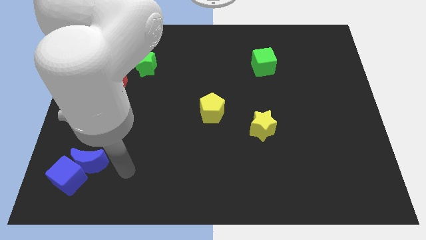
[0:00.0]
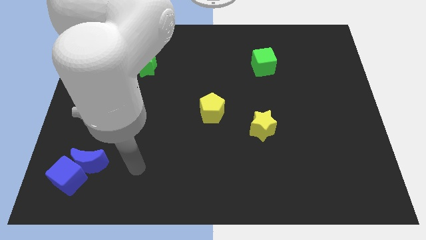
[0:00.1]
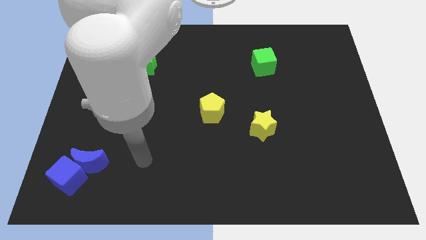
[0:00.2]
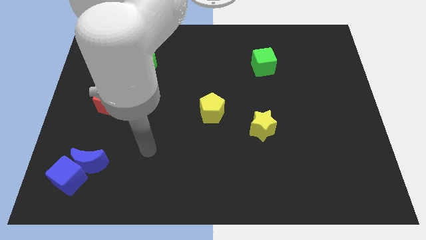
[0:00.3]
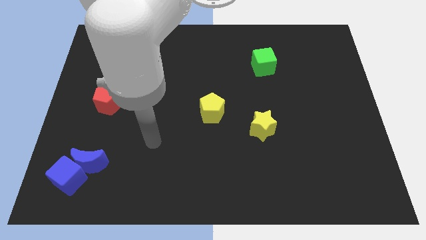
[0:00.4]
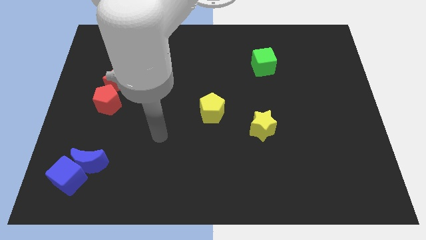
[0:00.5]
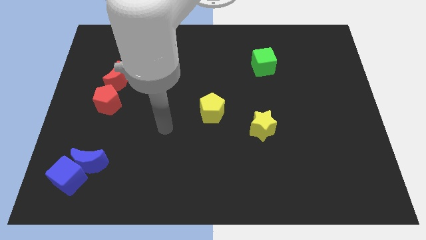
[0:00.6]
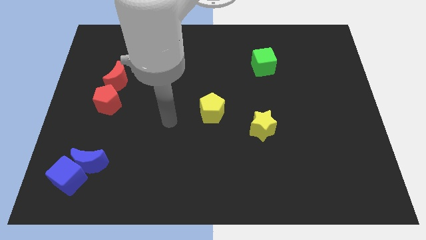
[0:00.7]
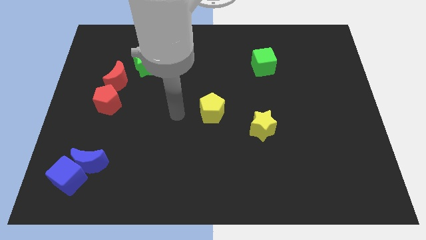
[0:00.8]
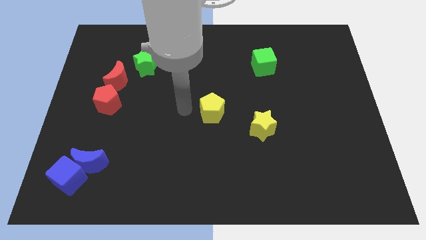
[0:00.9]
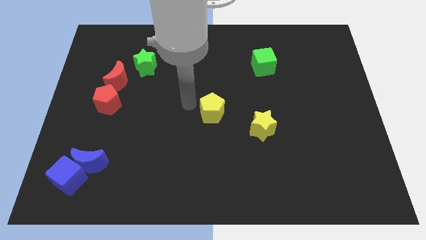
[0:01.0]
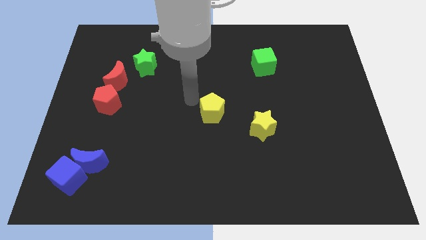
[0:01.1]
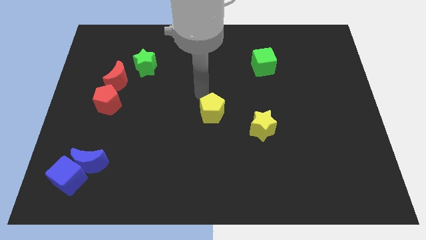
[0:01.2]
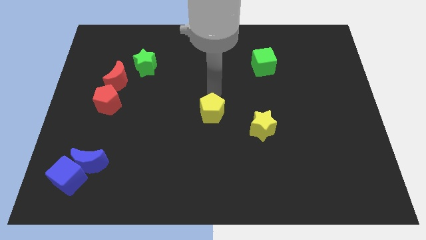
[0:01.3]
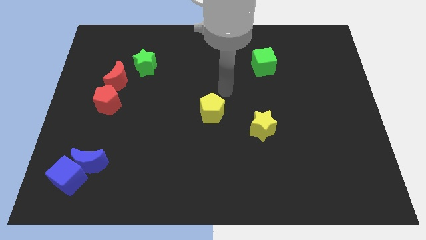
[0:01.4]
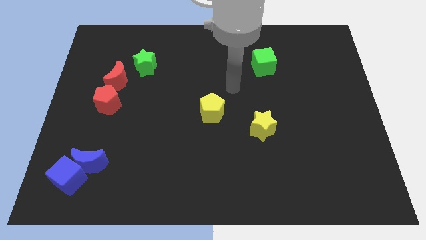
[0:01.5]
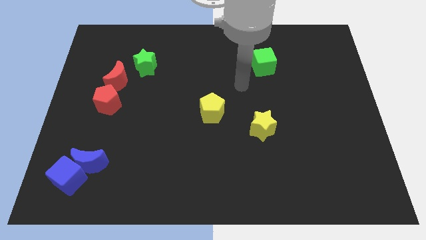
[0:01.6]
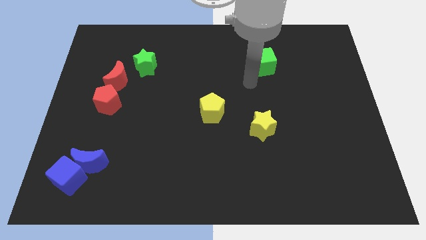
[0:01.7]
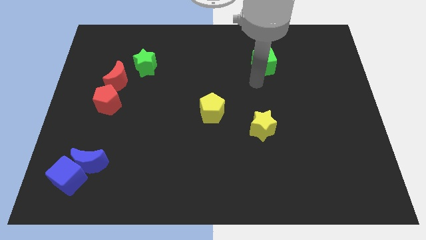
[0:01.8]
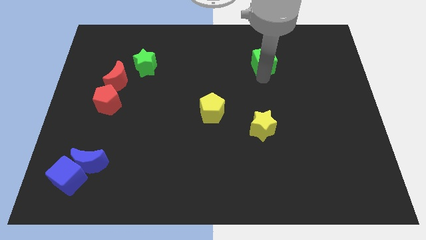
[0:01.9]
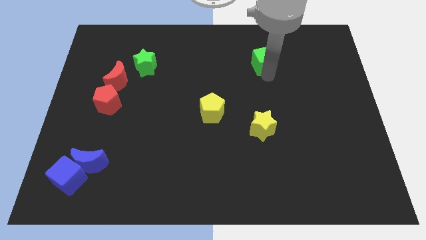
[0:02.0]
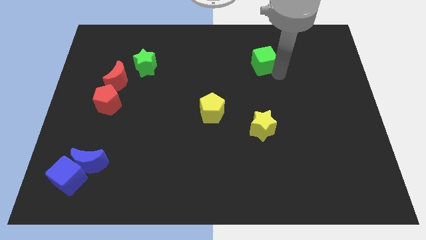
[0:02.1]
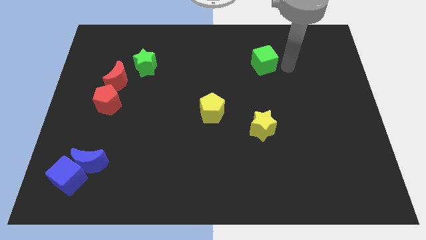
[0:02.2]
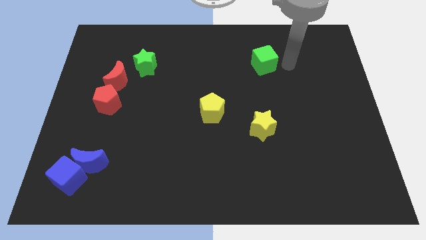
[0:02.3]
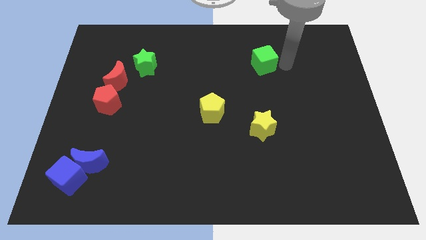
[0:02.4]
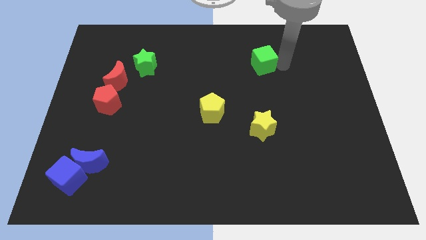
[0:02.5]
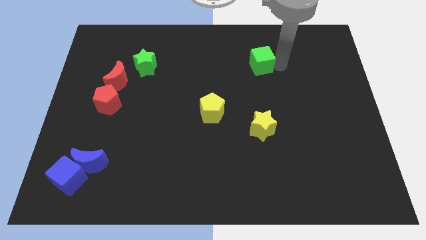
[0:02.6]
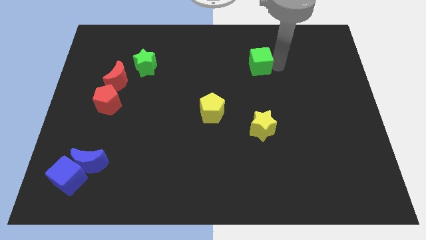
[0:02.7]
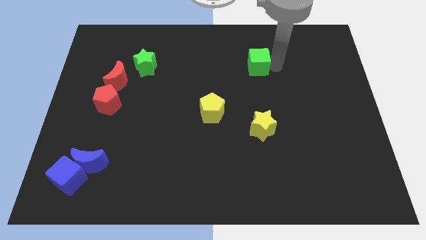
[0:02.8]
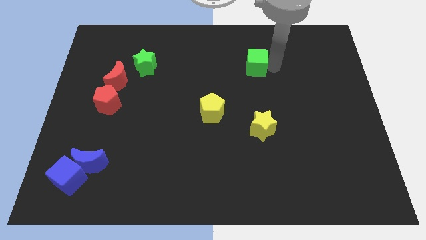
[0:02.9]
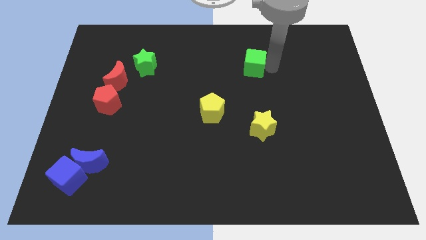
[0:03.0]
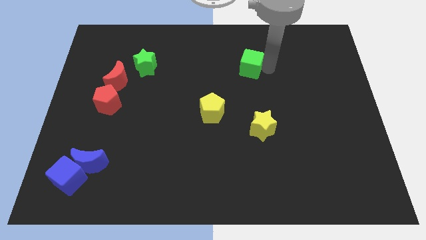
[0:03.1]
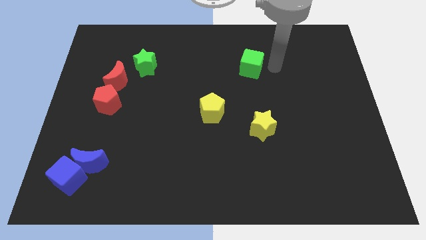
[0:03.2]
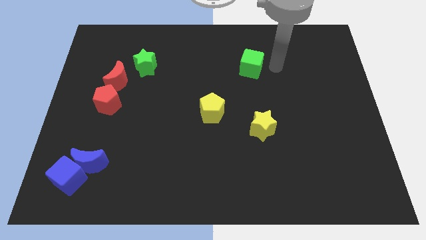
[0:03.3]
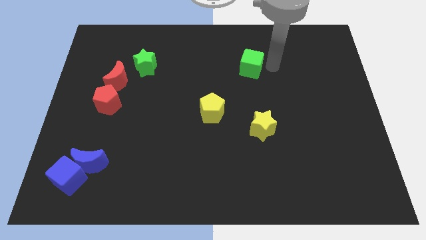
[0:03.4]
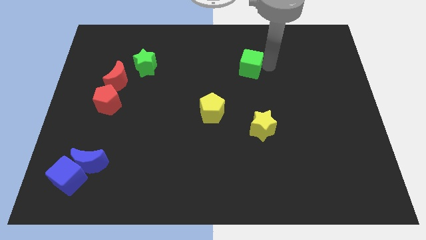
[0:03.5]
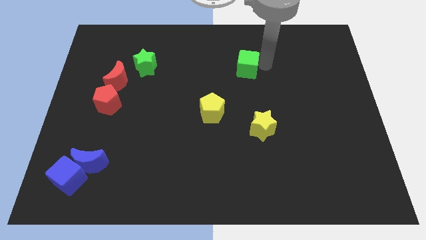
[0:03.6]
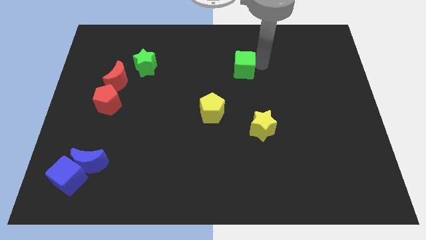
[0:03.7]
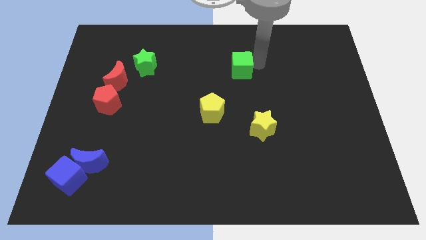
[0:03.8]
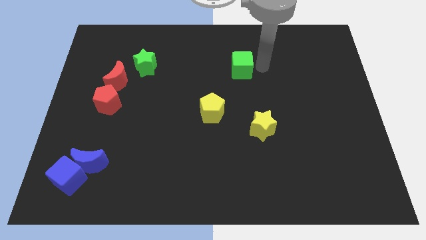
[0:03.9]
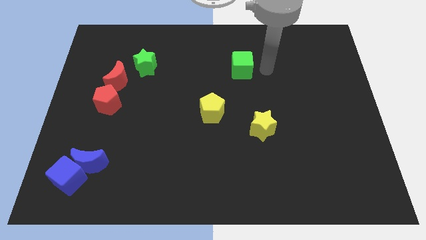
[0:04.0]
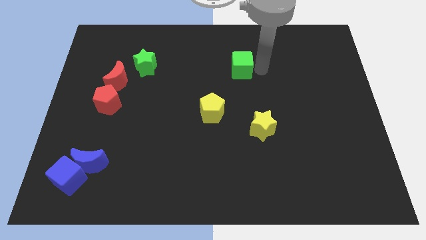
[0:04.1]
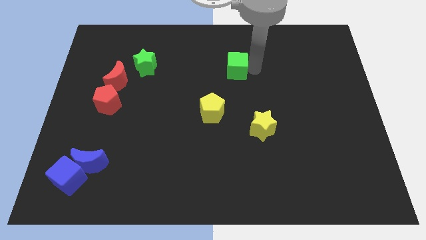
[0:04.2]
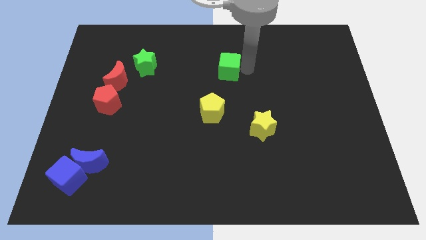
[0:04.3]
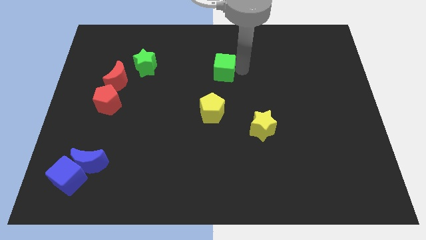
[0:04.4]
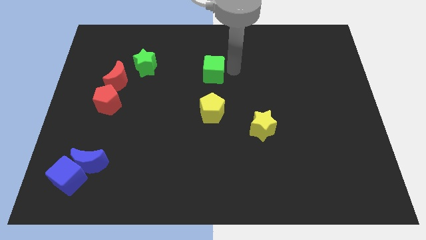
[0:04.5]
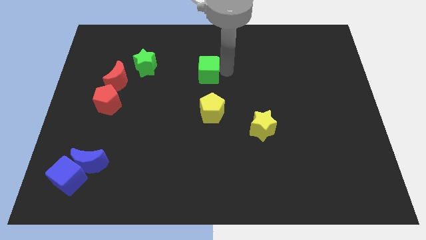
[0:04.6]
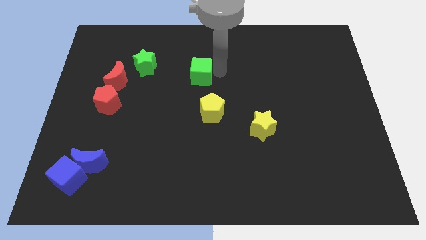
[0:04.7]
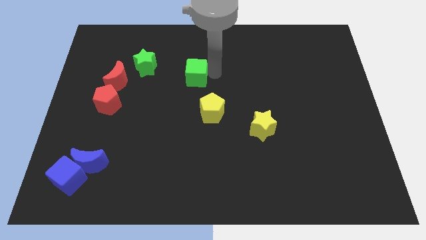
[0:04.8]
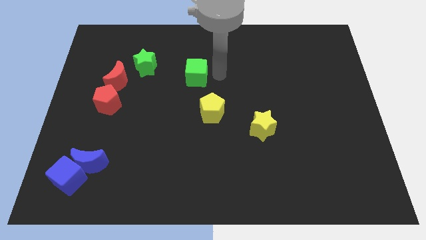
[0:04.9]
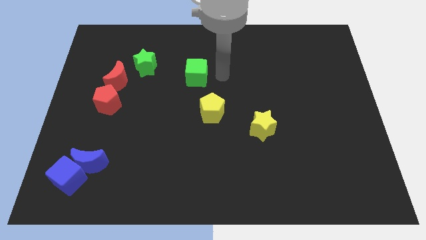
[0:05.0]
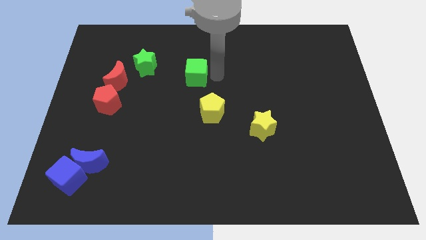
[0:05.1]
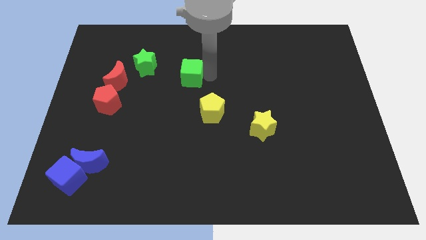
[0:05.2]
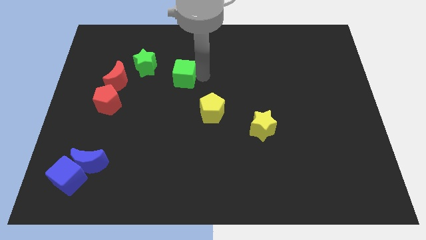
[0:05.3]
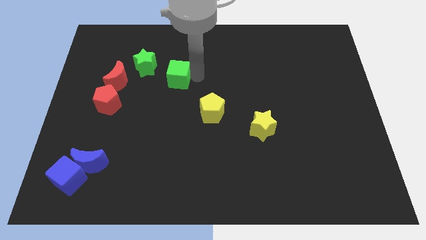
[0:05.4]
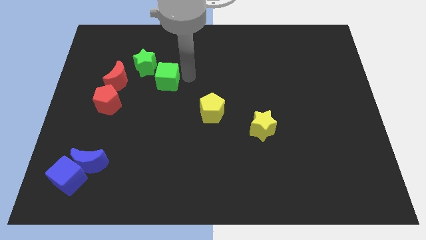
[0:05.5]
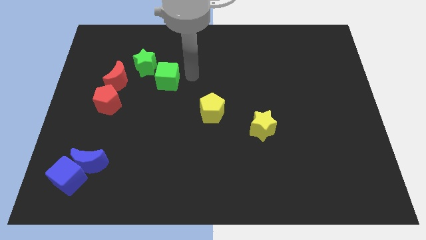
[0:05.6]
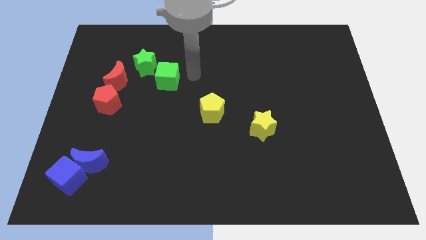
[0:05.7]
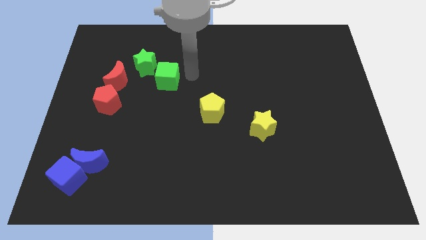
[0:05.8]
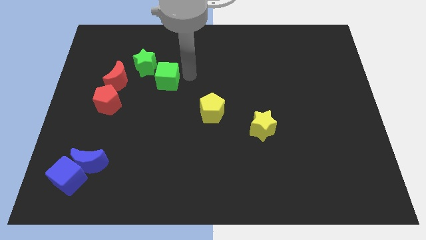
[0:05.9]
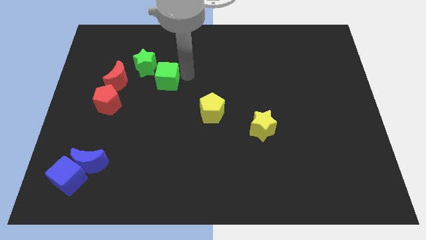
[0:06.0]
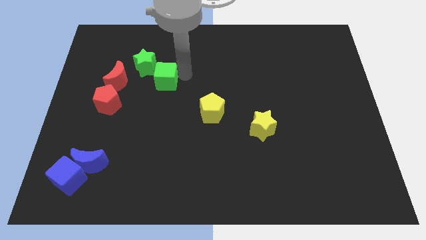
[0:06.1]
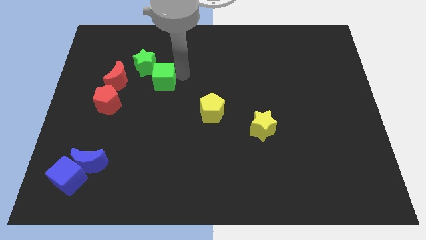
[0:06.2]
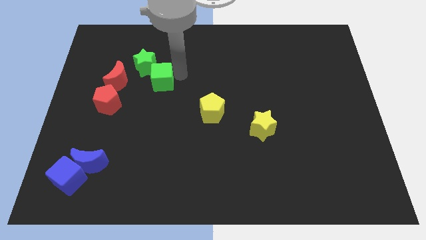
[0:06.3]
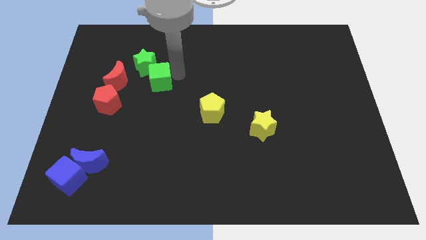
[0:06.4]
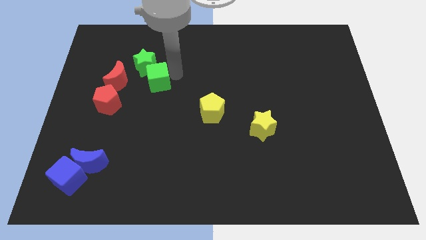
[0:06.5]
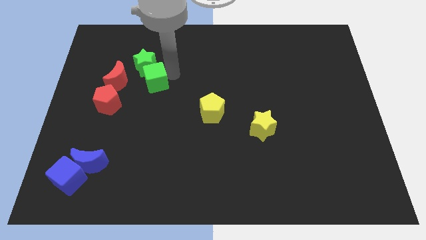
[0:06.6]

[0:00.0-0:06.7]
move the green cube diagonally up and to the right of the red pentagon
